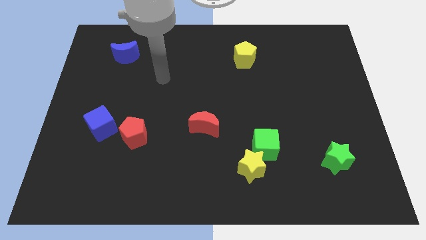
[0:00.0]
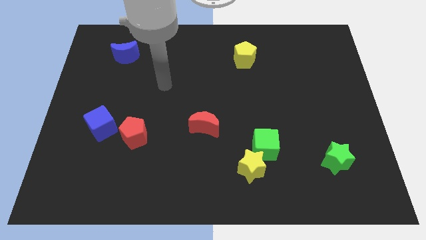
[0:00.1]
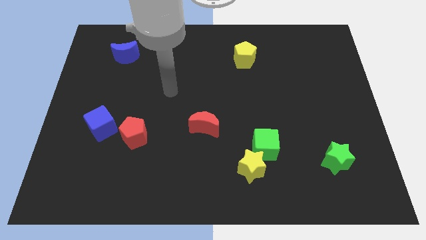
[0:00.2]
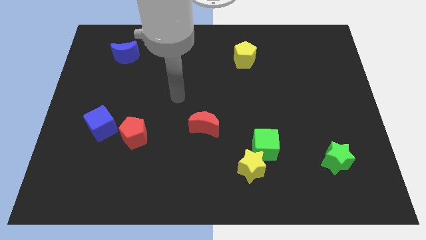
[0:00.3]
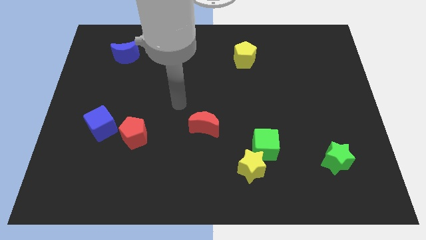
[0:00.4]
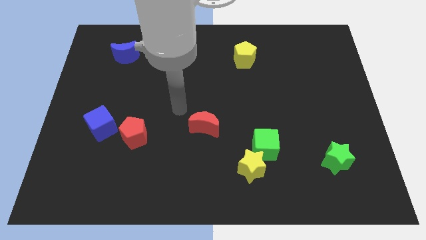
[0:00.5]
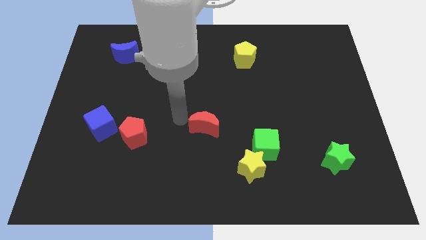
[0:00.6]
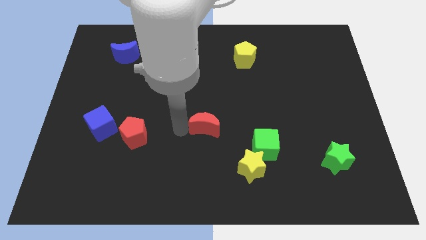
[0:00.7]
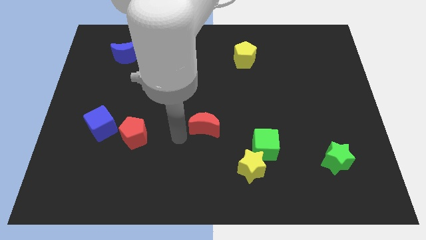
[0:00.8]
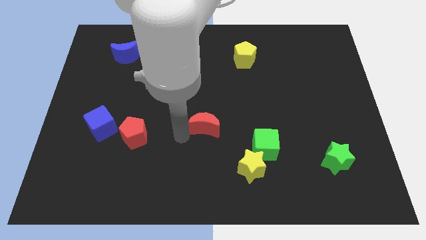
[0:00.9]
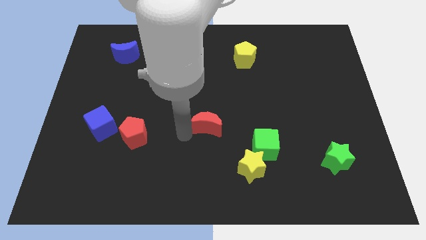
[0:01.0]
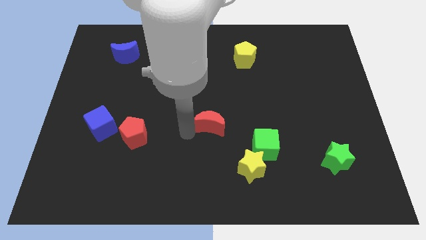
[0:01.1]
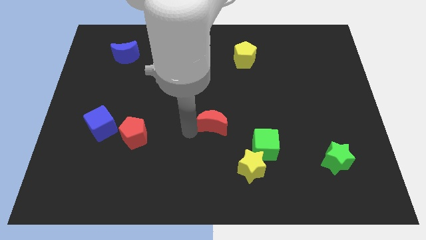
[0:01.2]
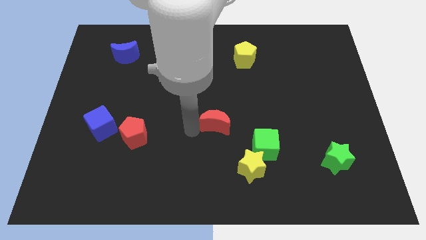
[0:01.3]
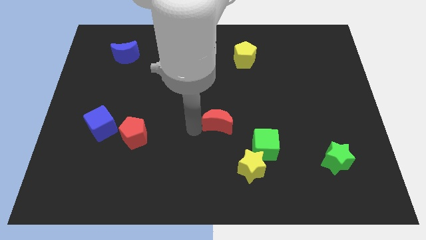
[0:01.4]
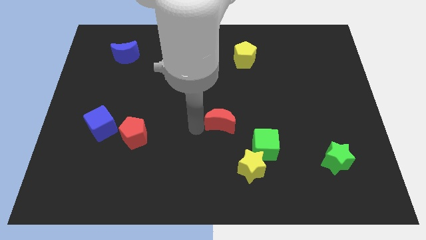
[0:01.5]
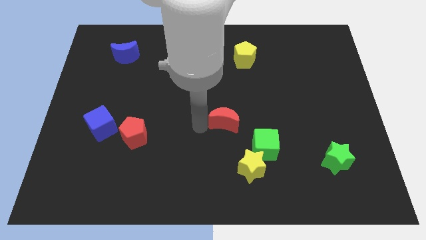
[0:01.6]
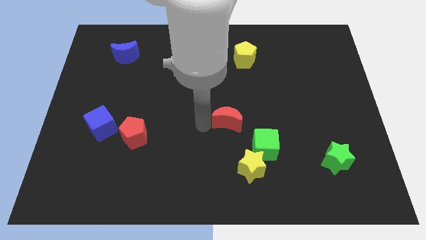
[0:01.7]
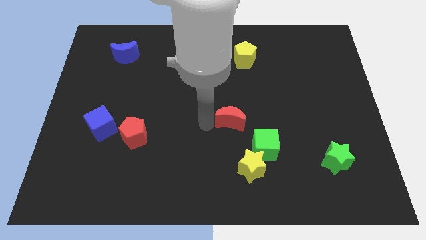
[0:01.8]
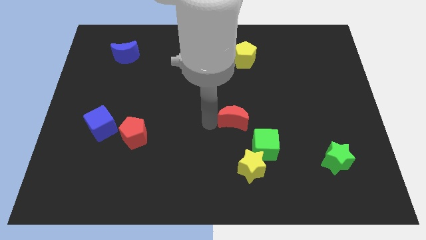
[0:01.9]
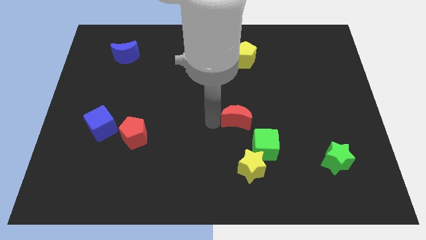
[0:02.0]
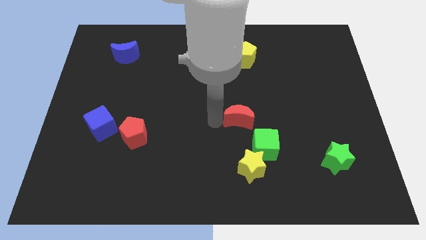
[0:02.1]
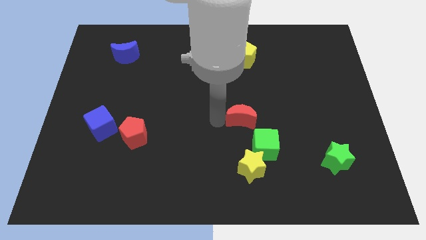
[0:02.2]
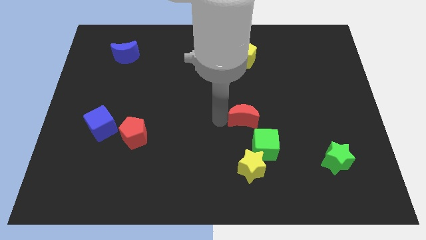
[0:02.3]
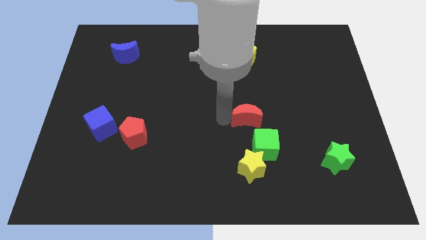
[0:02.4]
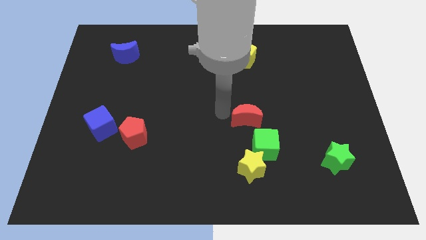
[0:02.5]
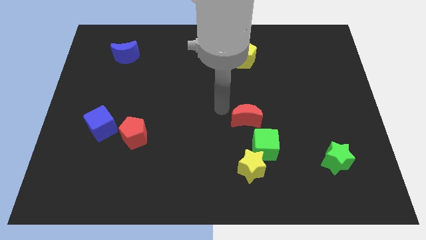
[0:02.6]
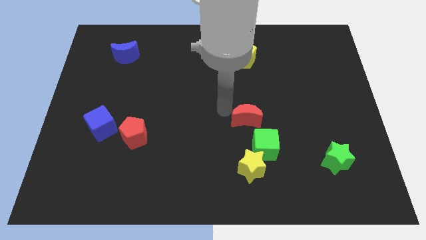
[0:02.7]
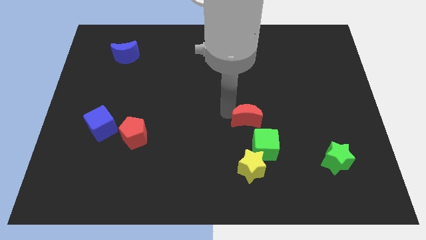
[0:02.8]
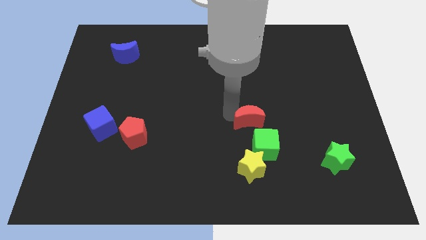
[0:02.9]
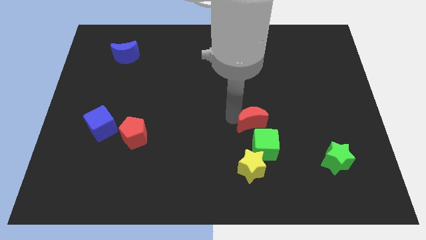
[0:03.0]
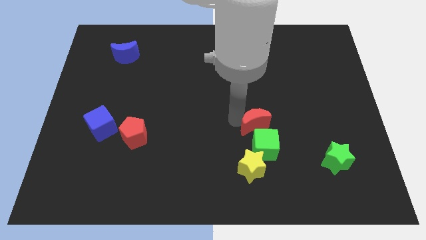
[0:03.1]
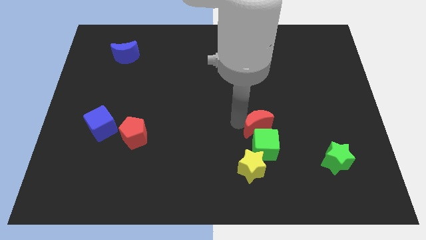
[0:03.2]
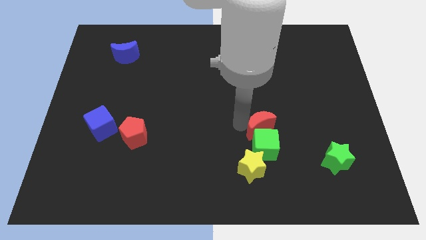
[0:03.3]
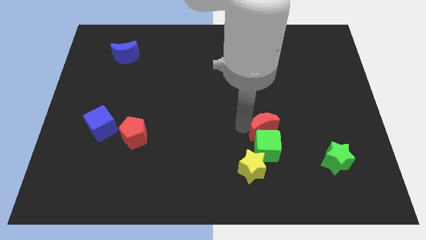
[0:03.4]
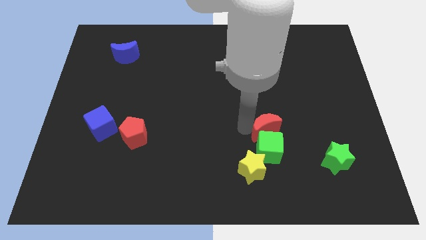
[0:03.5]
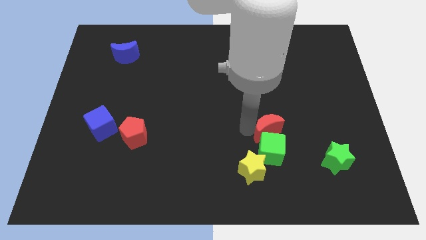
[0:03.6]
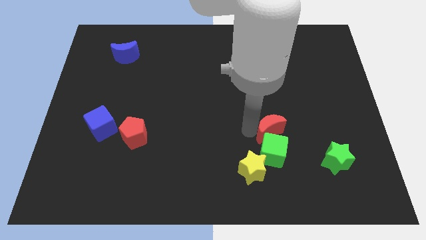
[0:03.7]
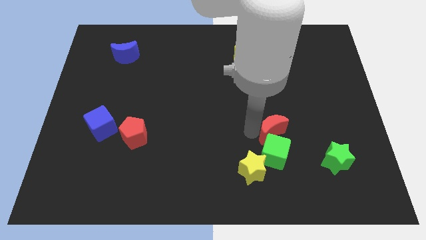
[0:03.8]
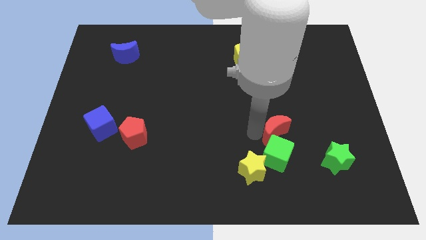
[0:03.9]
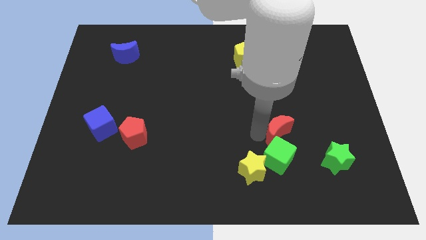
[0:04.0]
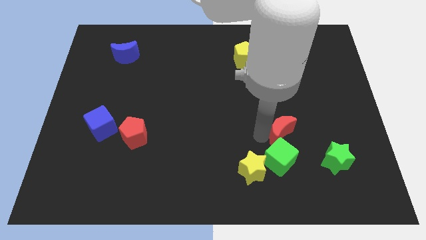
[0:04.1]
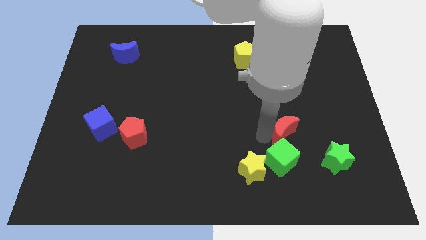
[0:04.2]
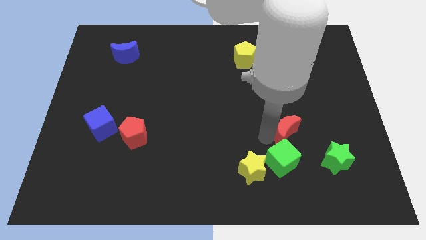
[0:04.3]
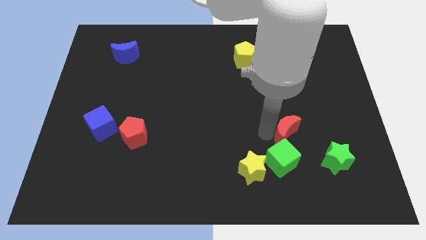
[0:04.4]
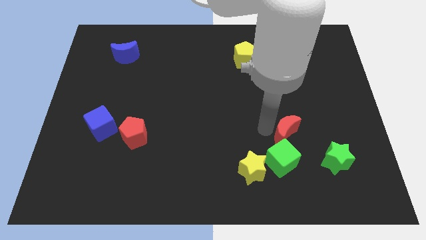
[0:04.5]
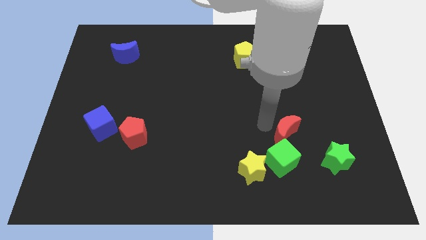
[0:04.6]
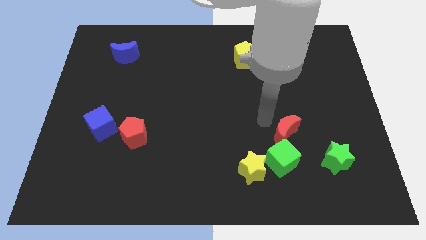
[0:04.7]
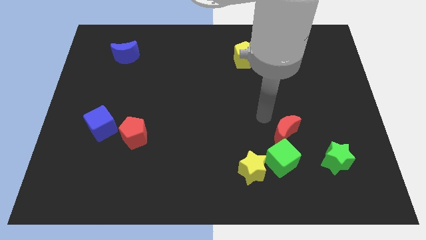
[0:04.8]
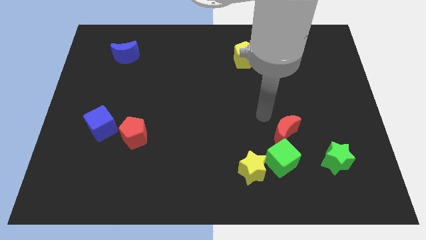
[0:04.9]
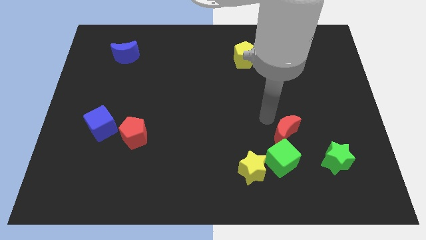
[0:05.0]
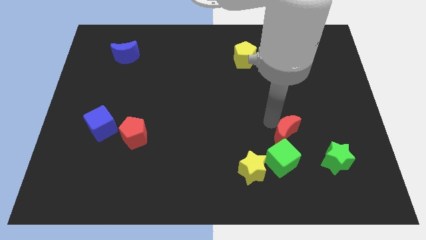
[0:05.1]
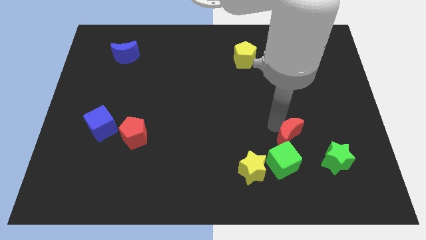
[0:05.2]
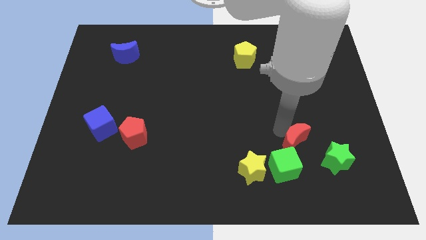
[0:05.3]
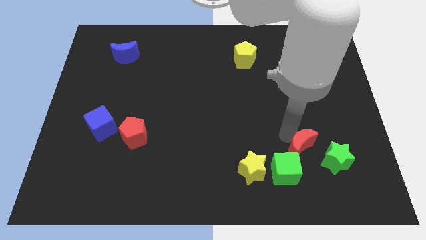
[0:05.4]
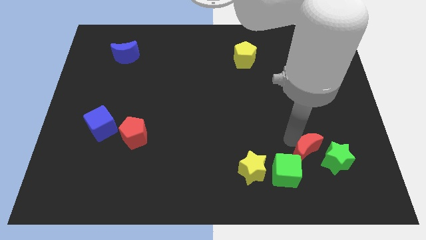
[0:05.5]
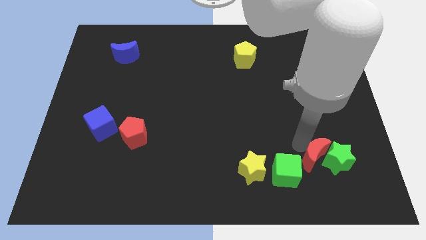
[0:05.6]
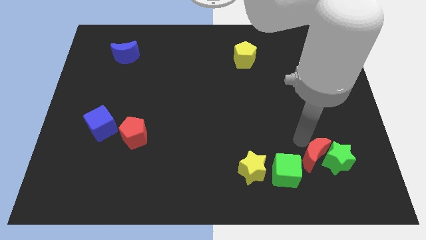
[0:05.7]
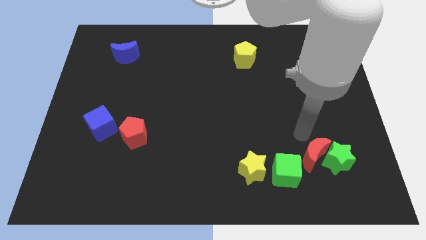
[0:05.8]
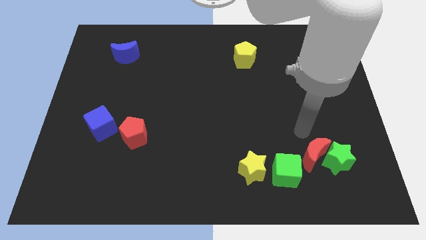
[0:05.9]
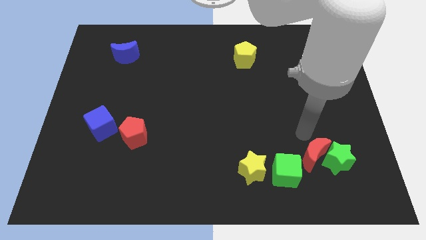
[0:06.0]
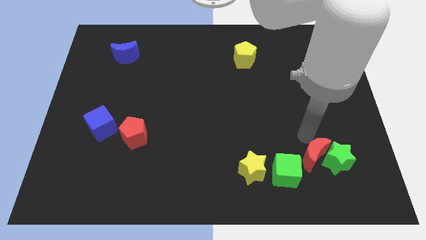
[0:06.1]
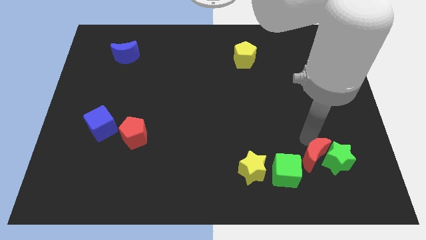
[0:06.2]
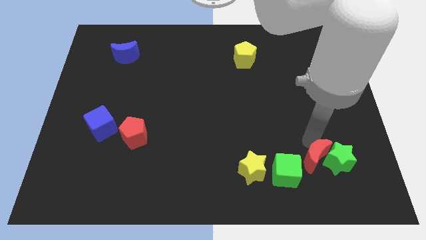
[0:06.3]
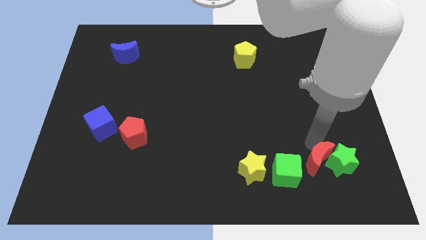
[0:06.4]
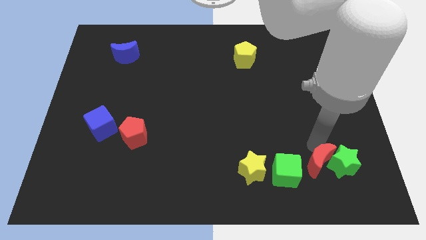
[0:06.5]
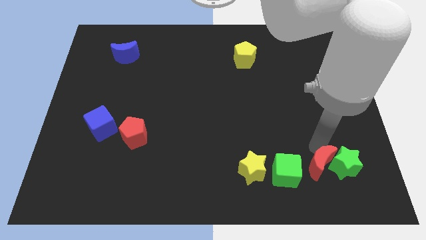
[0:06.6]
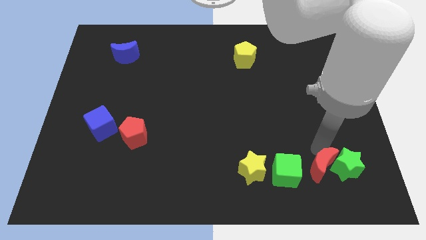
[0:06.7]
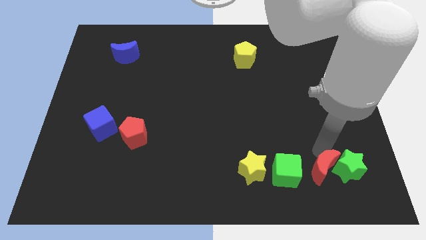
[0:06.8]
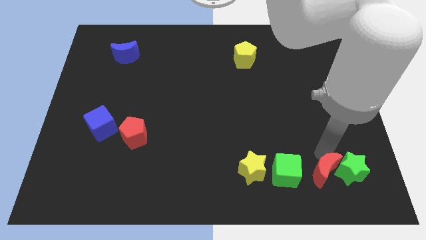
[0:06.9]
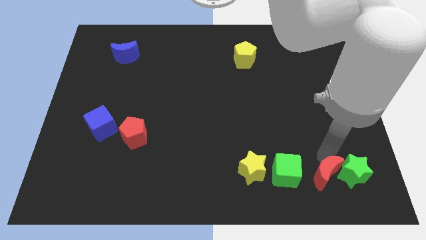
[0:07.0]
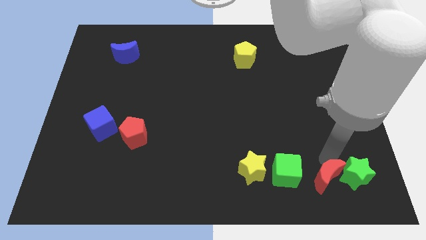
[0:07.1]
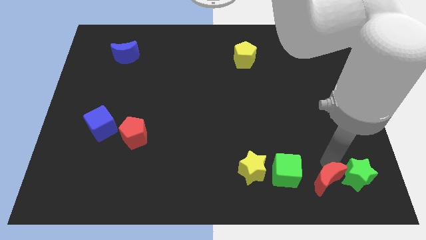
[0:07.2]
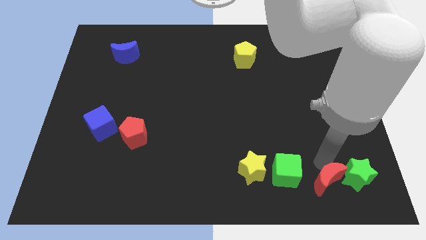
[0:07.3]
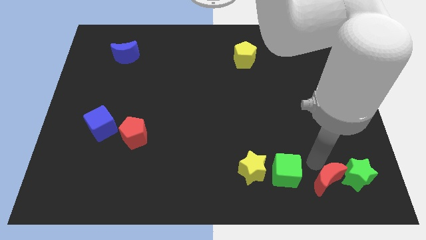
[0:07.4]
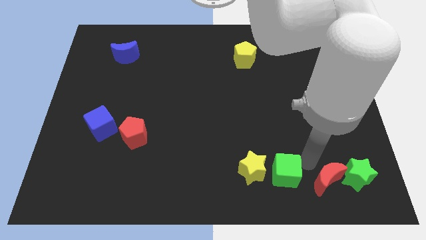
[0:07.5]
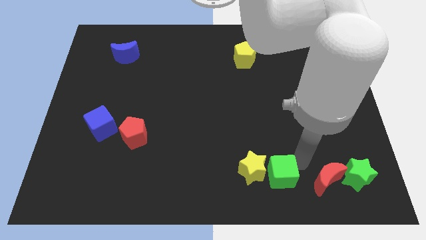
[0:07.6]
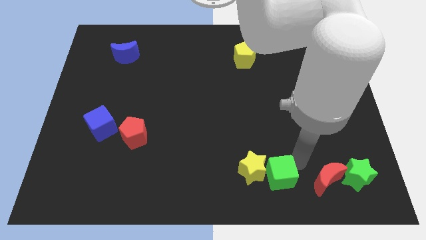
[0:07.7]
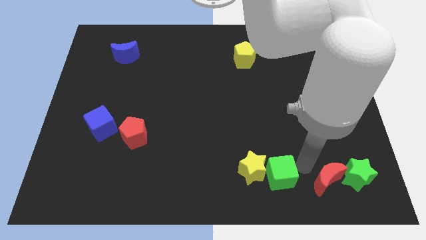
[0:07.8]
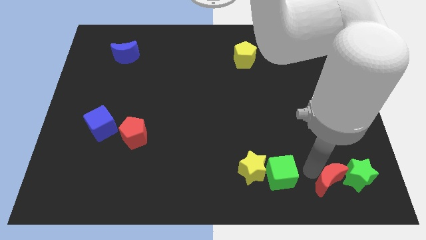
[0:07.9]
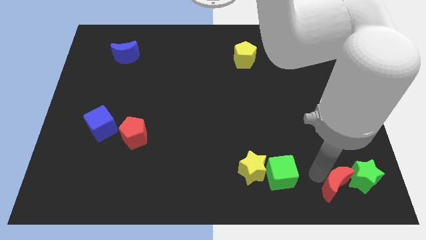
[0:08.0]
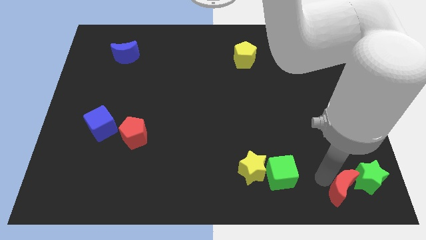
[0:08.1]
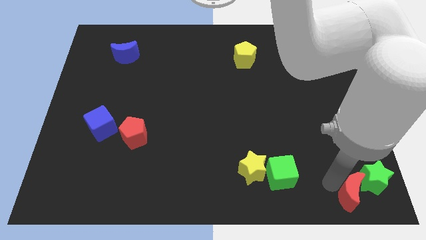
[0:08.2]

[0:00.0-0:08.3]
put the red moon to the bottom right of the board

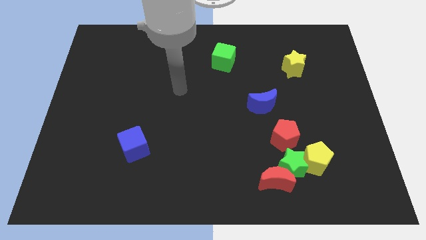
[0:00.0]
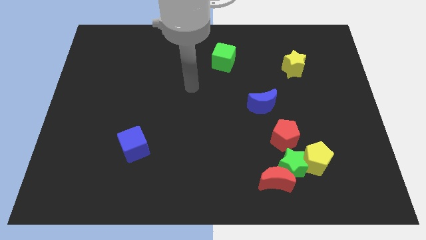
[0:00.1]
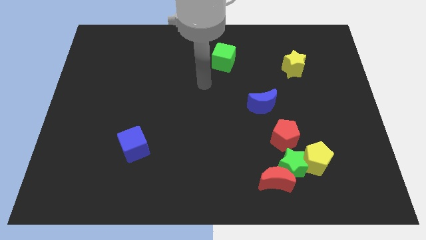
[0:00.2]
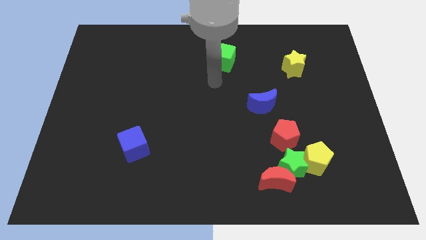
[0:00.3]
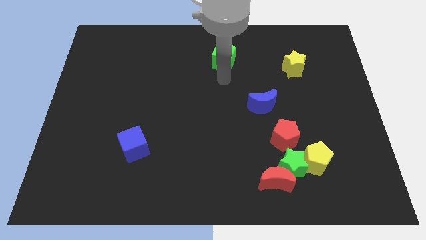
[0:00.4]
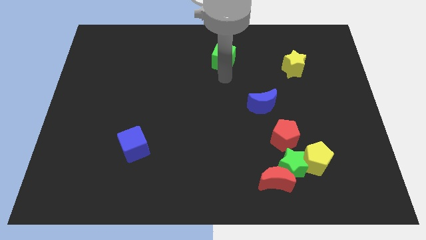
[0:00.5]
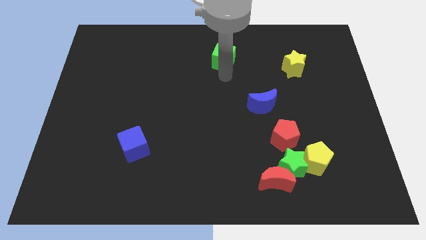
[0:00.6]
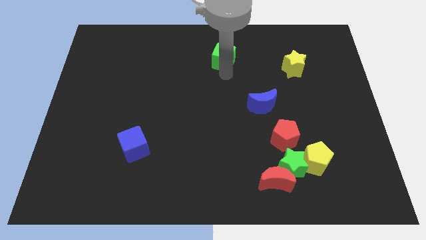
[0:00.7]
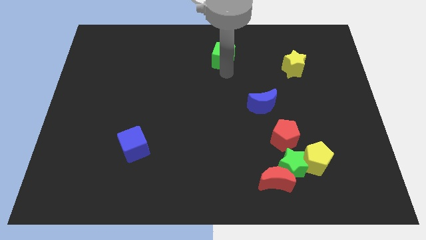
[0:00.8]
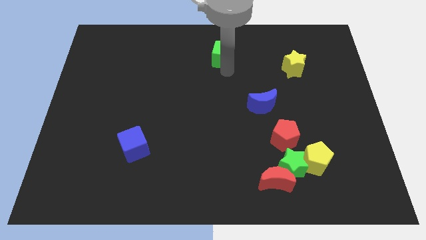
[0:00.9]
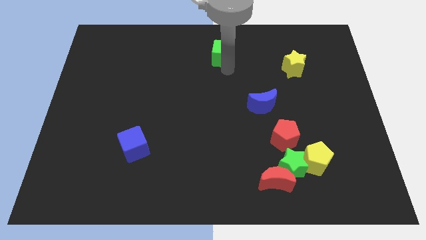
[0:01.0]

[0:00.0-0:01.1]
put the green cube to the top side
